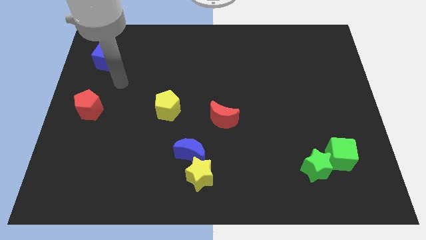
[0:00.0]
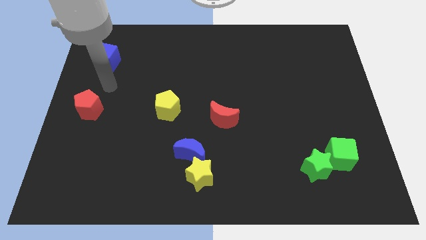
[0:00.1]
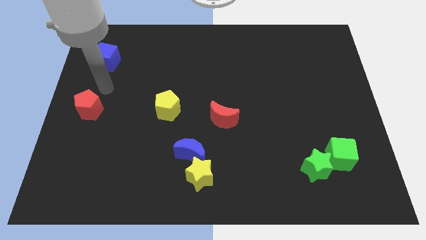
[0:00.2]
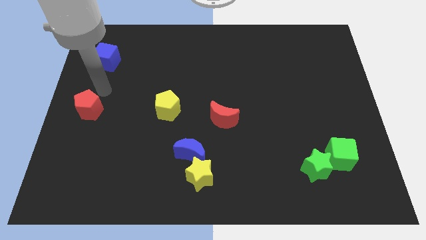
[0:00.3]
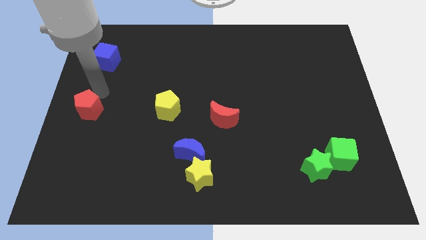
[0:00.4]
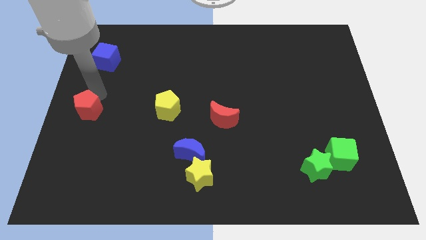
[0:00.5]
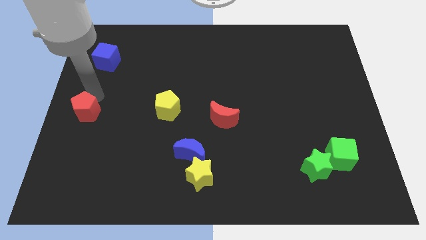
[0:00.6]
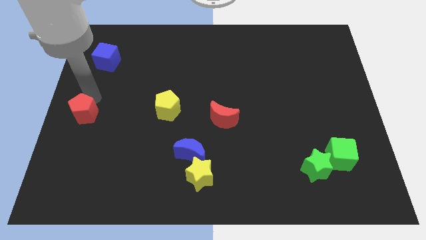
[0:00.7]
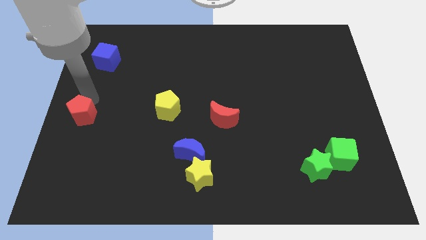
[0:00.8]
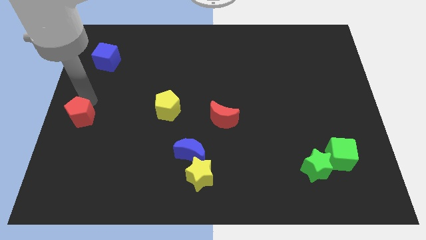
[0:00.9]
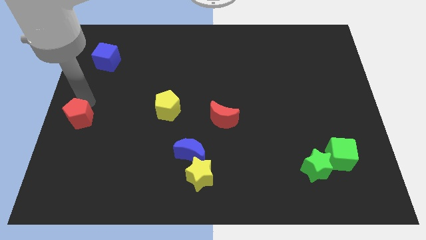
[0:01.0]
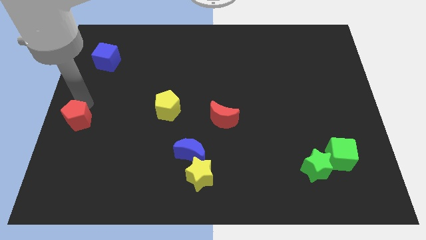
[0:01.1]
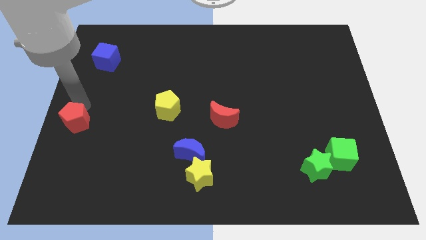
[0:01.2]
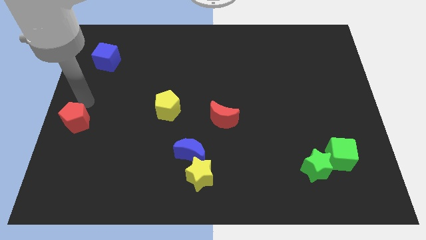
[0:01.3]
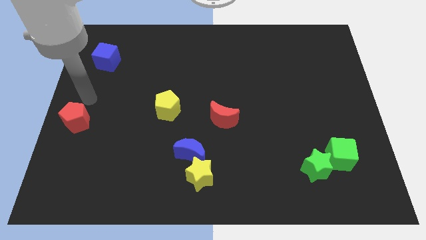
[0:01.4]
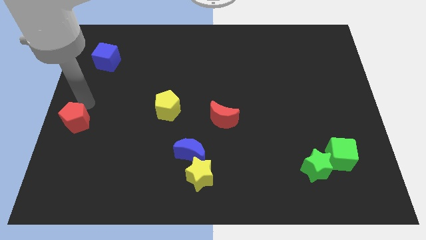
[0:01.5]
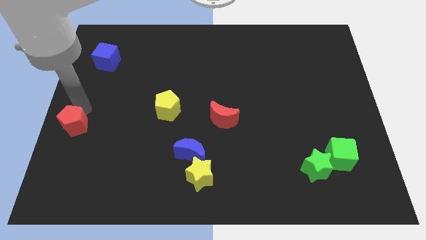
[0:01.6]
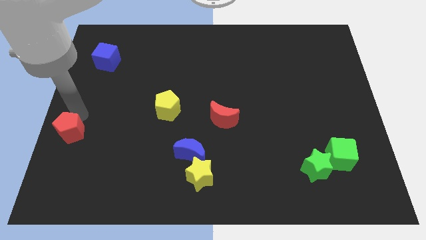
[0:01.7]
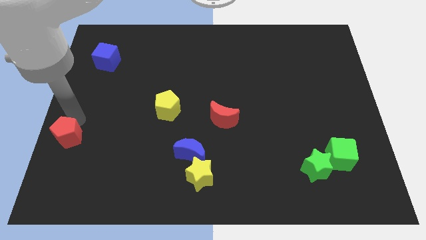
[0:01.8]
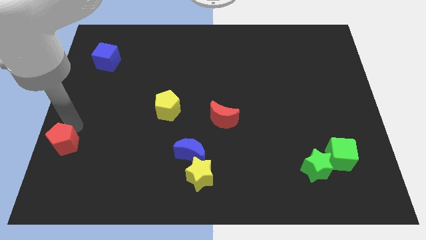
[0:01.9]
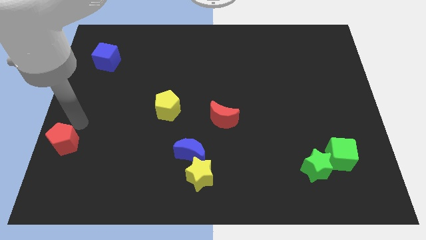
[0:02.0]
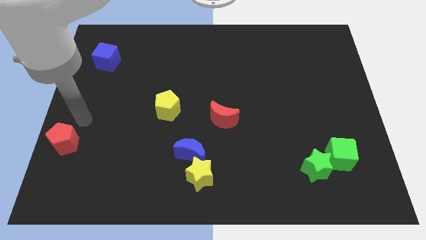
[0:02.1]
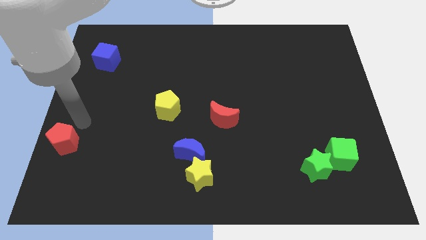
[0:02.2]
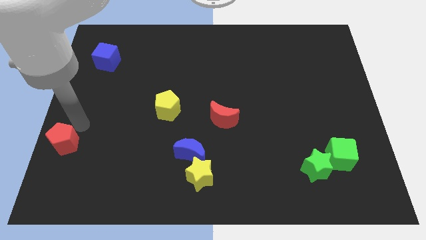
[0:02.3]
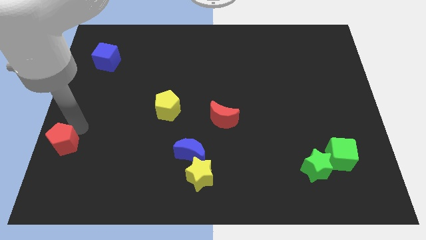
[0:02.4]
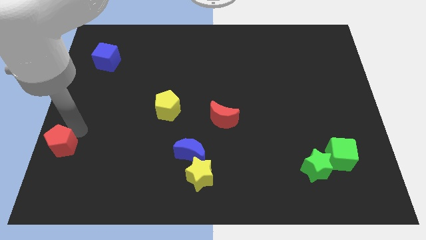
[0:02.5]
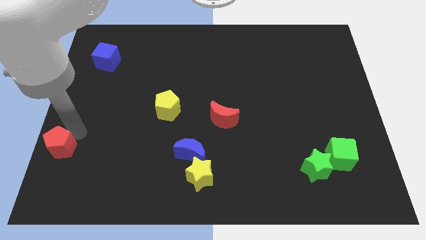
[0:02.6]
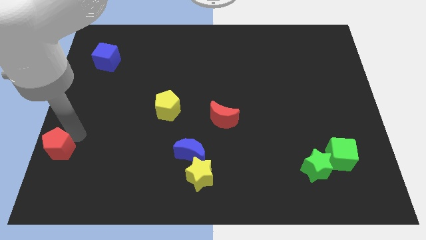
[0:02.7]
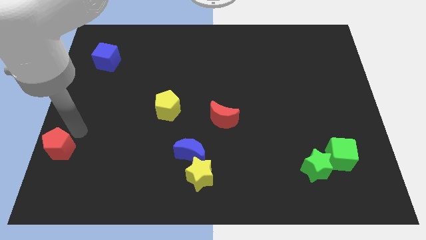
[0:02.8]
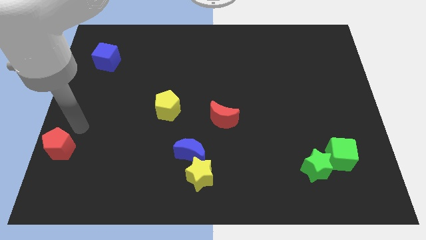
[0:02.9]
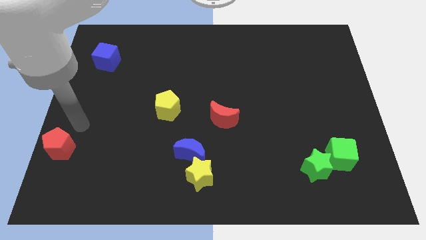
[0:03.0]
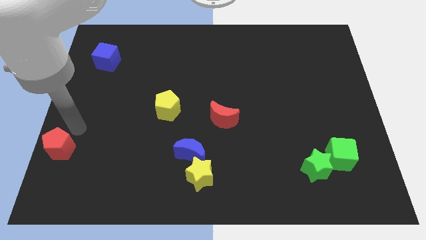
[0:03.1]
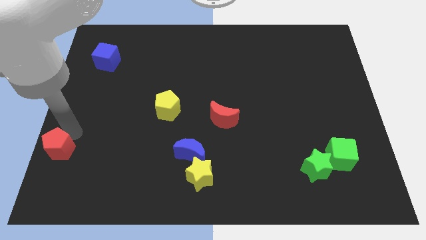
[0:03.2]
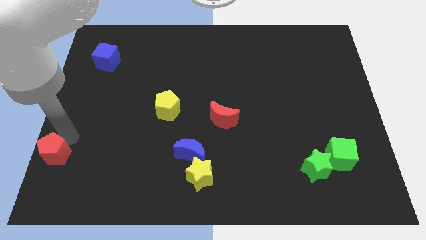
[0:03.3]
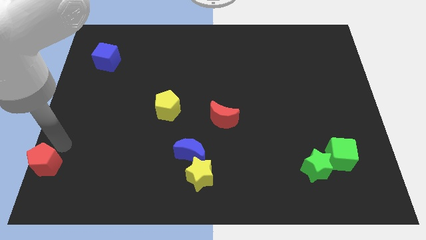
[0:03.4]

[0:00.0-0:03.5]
put the red pentagon to the bottom left

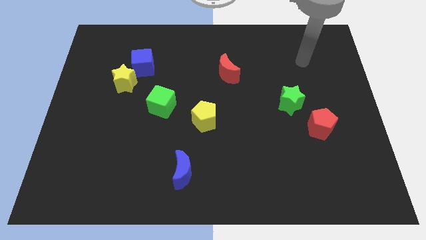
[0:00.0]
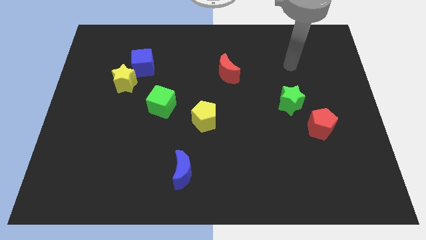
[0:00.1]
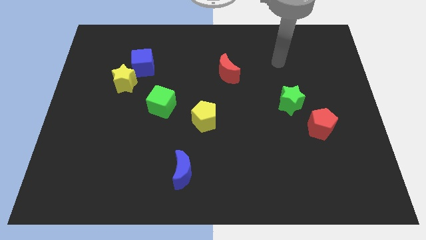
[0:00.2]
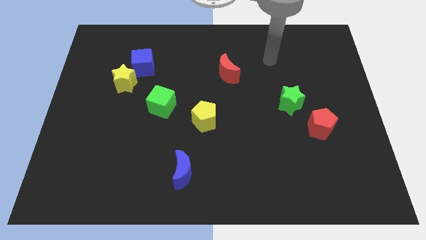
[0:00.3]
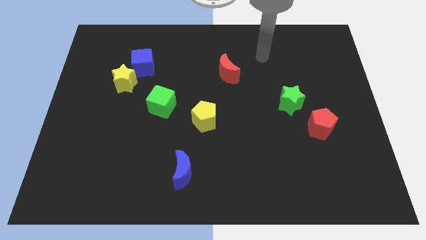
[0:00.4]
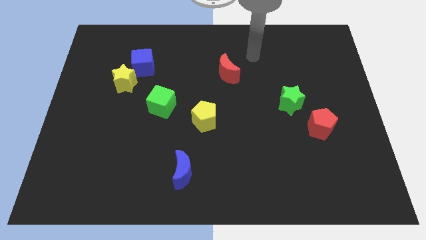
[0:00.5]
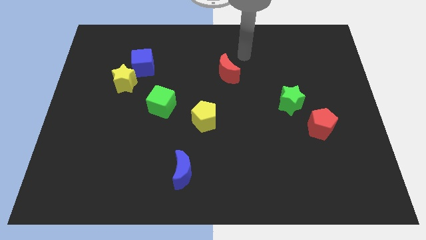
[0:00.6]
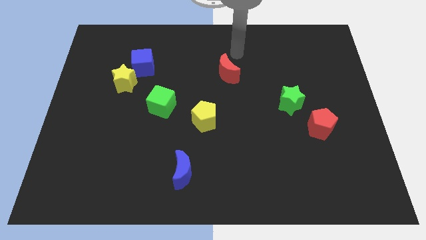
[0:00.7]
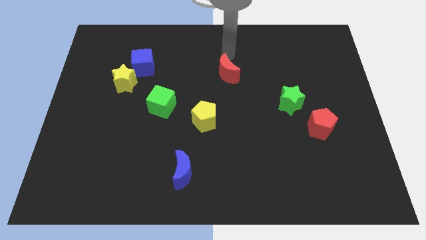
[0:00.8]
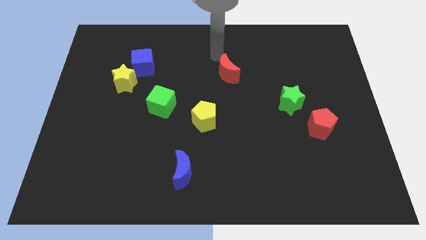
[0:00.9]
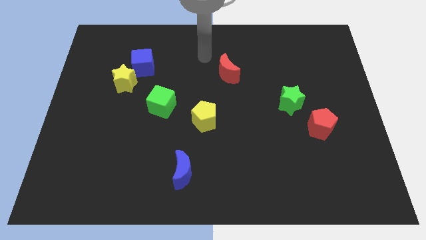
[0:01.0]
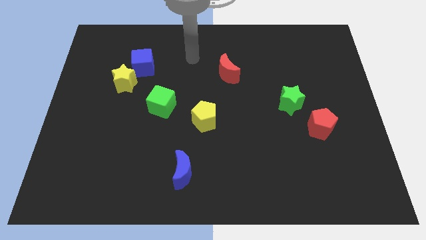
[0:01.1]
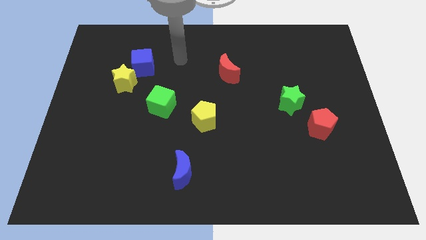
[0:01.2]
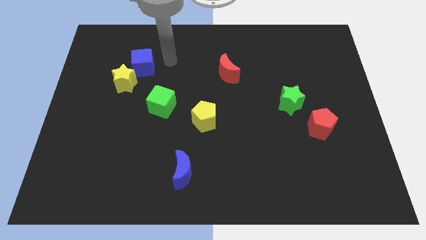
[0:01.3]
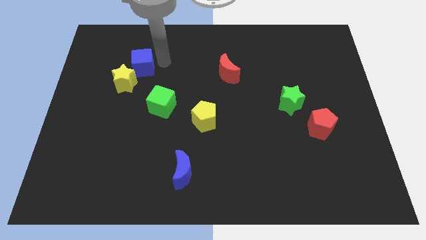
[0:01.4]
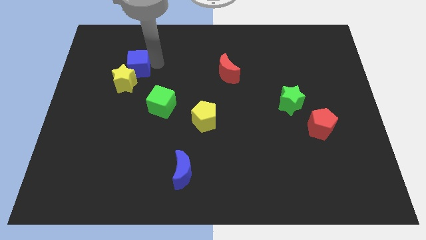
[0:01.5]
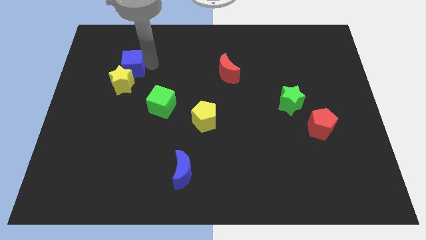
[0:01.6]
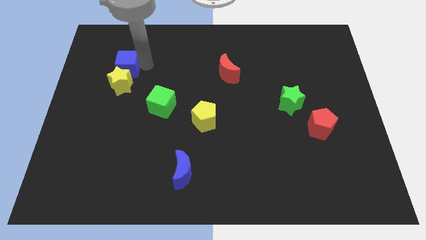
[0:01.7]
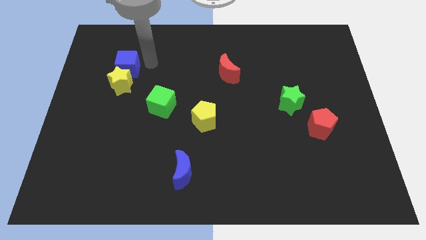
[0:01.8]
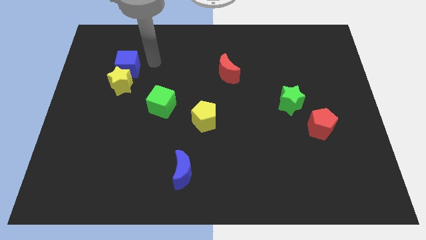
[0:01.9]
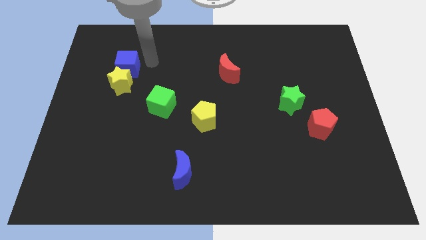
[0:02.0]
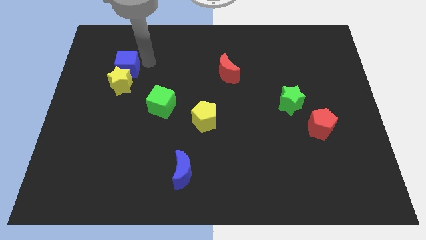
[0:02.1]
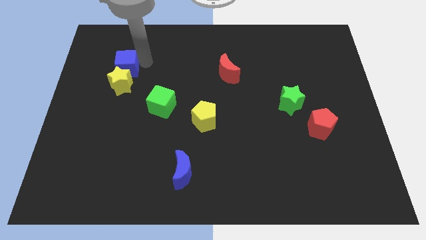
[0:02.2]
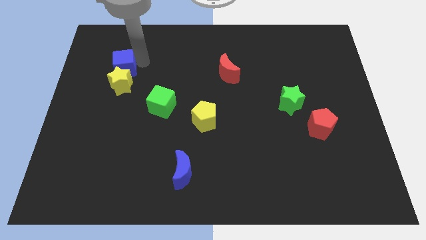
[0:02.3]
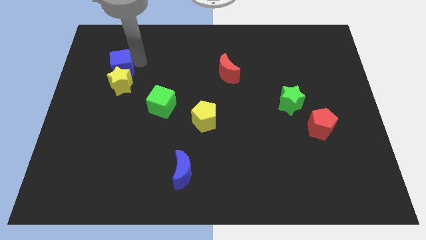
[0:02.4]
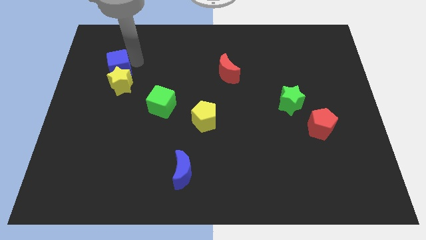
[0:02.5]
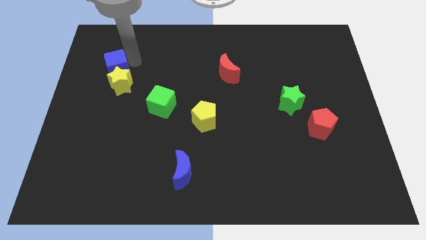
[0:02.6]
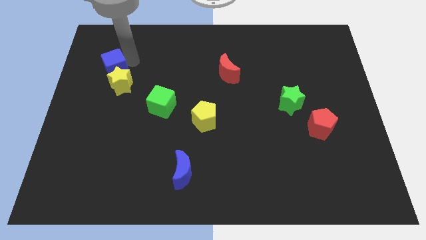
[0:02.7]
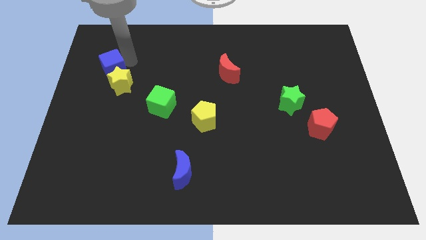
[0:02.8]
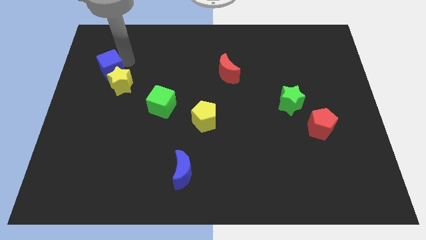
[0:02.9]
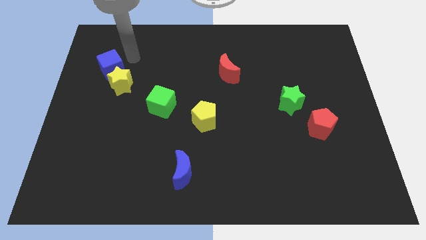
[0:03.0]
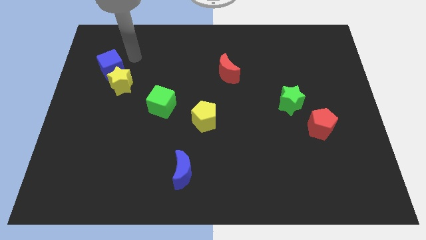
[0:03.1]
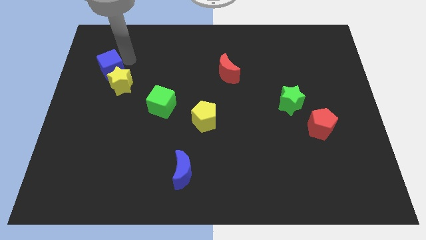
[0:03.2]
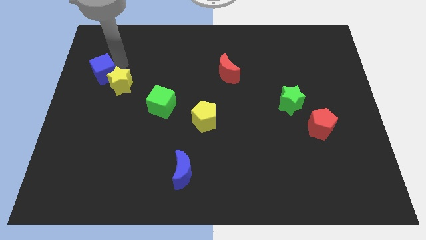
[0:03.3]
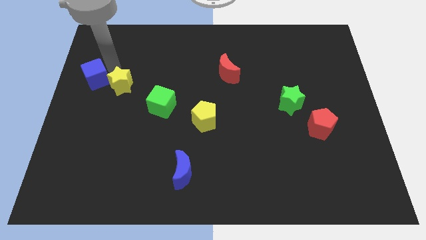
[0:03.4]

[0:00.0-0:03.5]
put the blue cube to the left side of the board

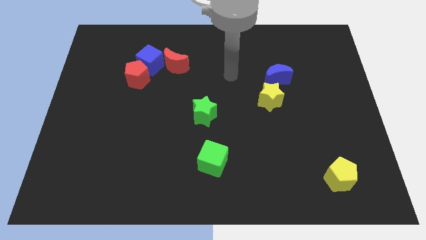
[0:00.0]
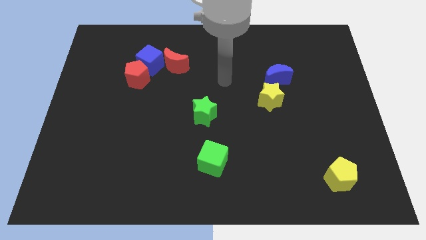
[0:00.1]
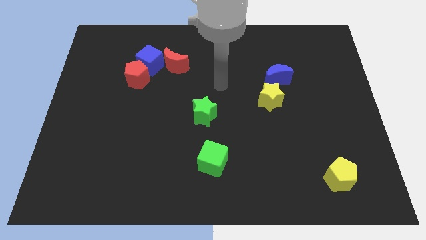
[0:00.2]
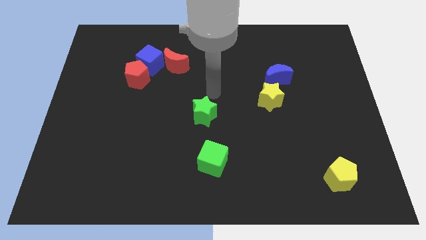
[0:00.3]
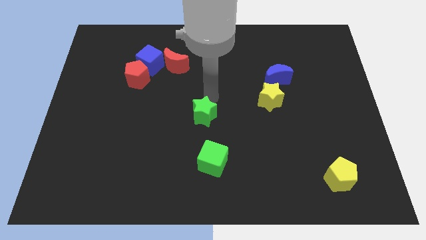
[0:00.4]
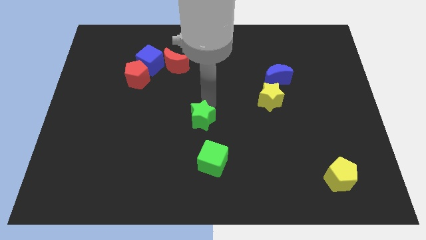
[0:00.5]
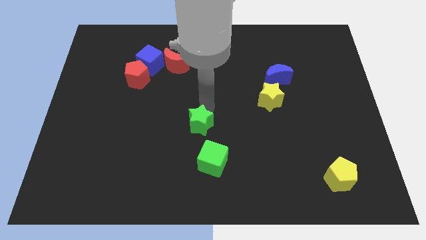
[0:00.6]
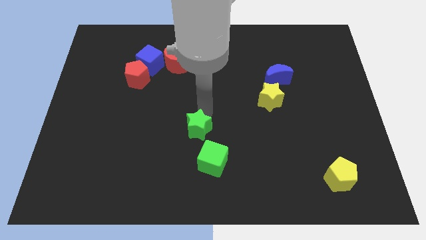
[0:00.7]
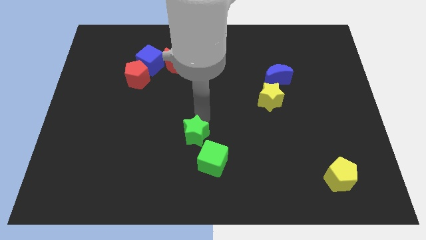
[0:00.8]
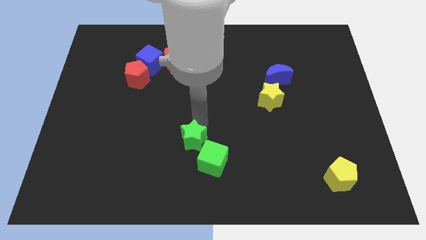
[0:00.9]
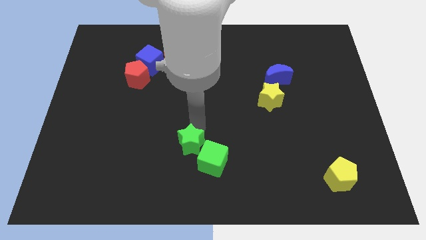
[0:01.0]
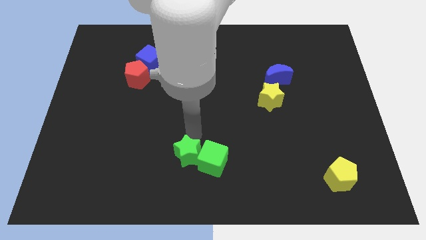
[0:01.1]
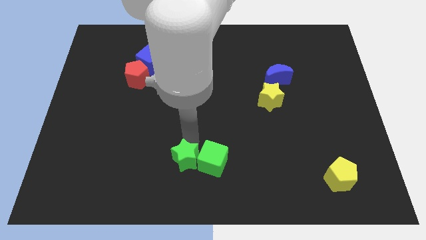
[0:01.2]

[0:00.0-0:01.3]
move the green star to the bottom
